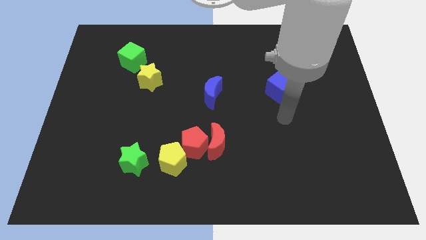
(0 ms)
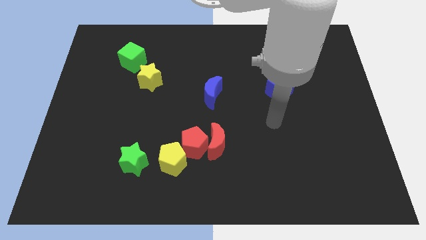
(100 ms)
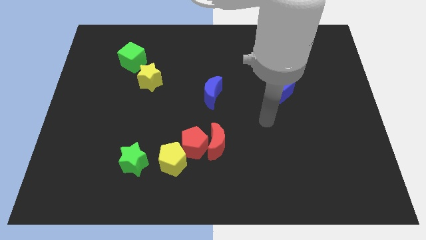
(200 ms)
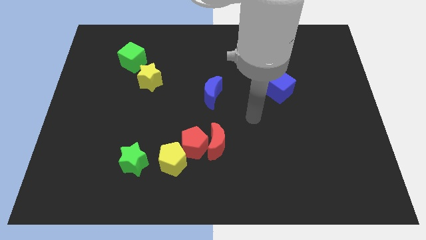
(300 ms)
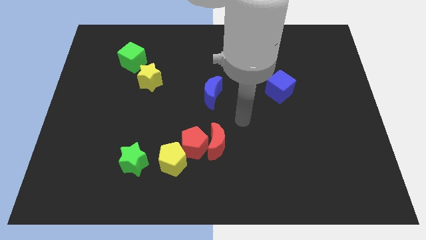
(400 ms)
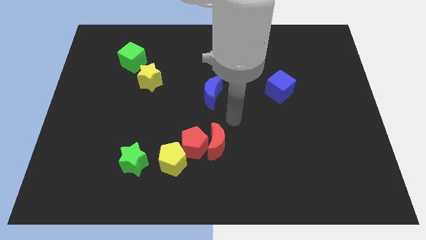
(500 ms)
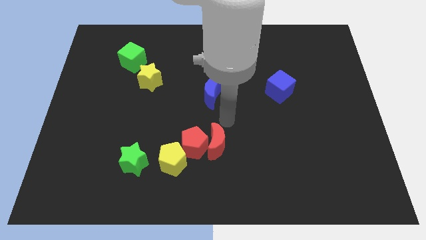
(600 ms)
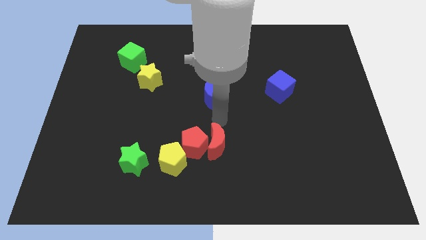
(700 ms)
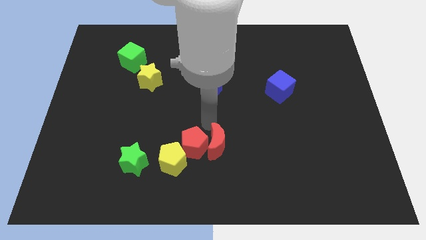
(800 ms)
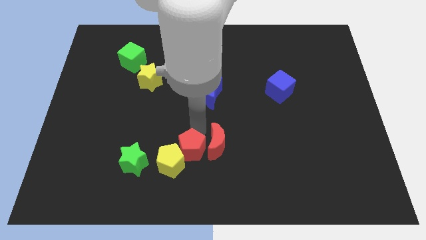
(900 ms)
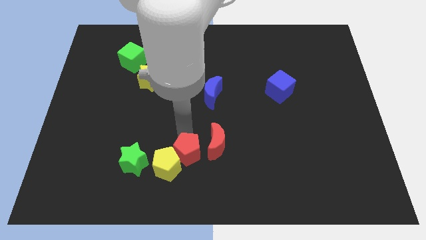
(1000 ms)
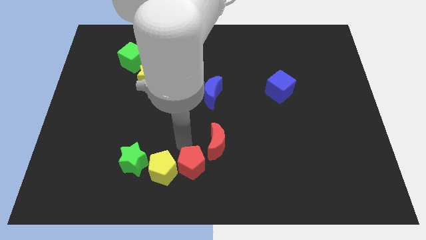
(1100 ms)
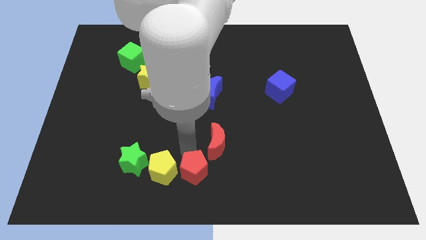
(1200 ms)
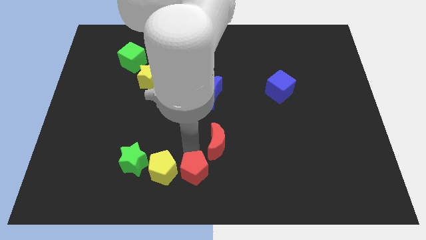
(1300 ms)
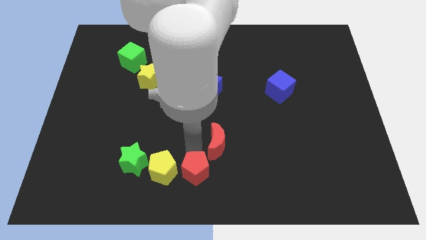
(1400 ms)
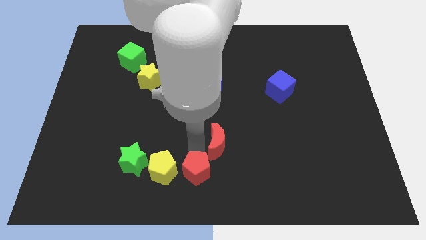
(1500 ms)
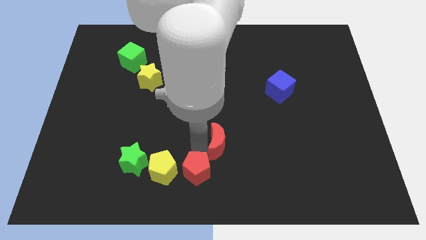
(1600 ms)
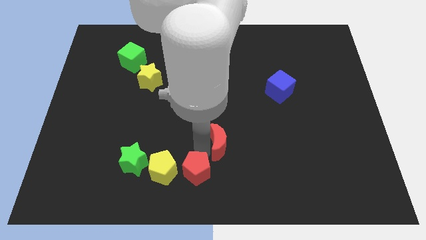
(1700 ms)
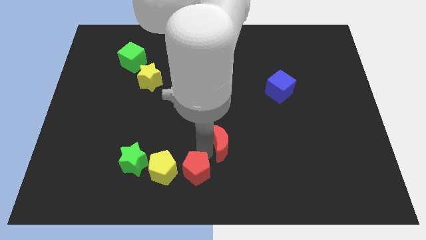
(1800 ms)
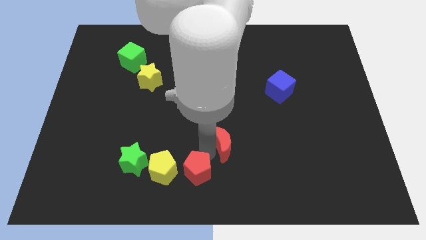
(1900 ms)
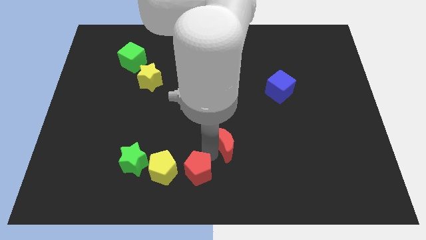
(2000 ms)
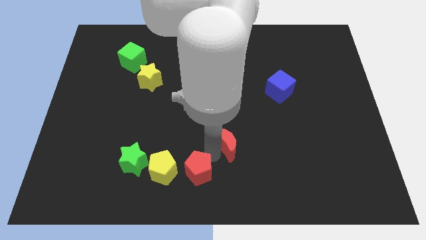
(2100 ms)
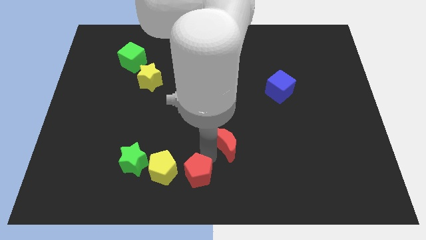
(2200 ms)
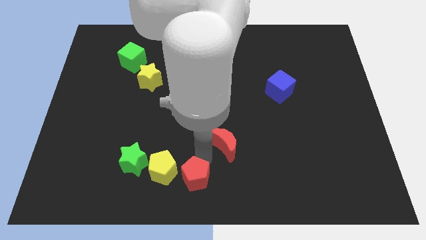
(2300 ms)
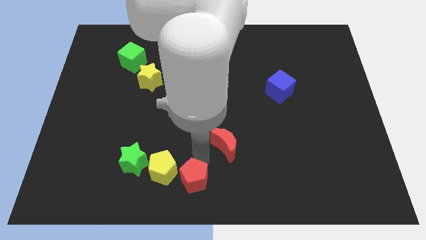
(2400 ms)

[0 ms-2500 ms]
pull the red moon apart from the red pentagon

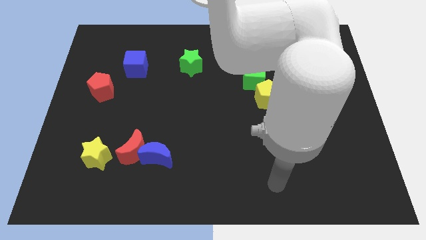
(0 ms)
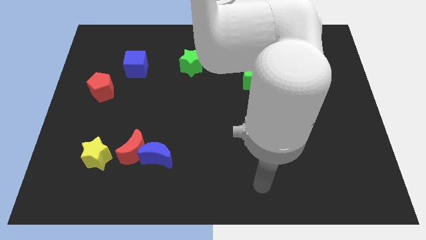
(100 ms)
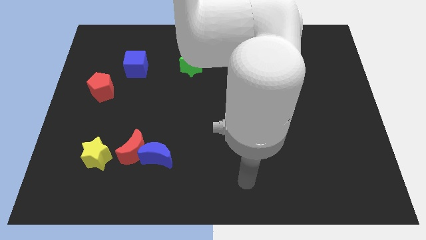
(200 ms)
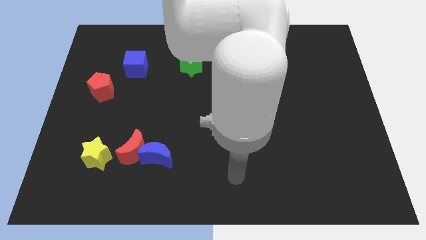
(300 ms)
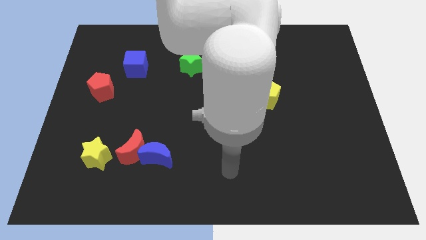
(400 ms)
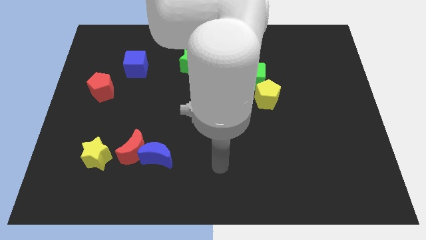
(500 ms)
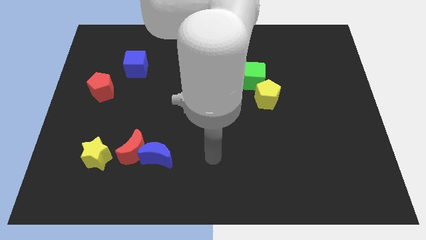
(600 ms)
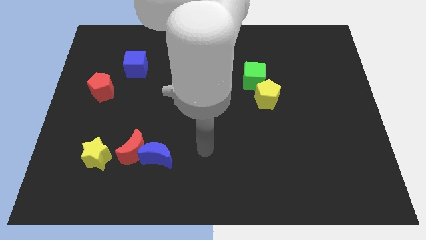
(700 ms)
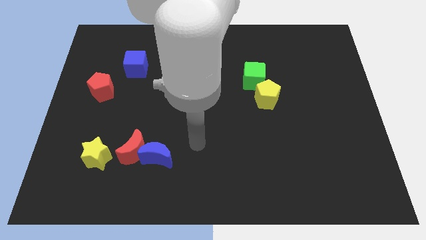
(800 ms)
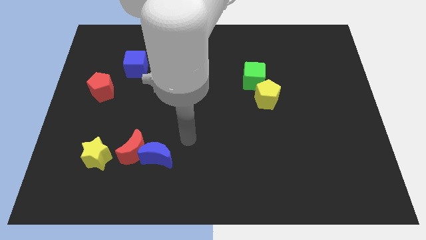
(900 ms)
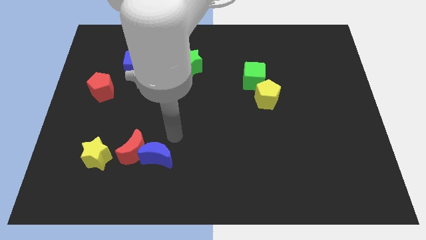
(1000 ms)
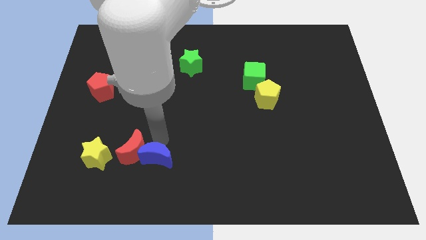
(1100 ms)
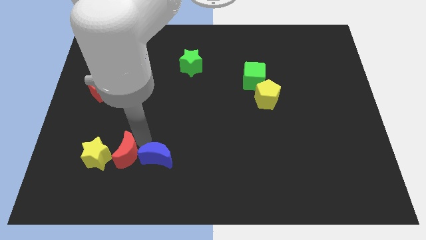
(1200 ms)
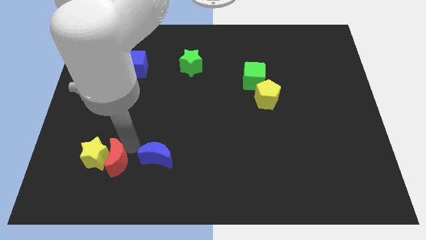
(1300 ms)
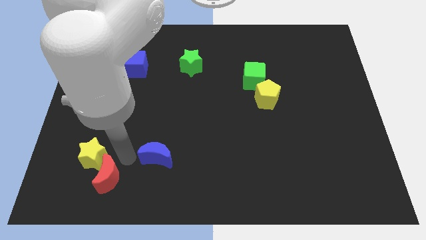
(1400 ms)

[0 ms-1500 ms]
move the blue moon away from the red moon

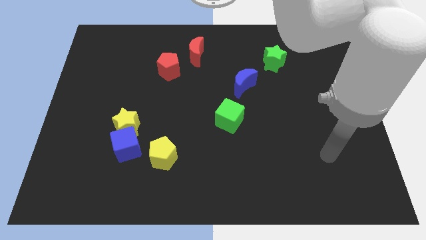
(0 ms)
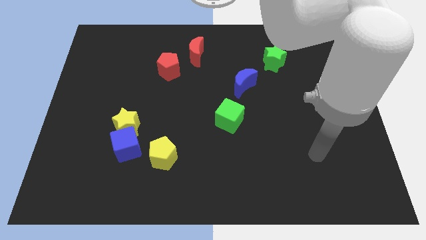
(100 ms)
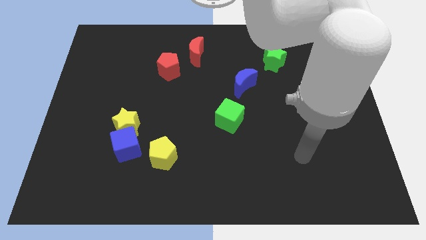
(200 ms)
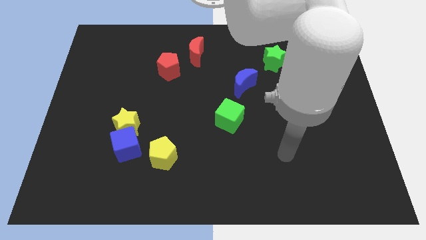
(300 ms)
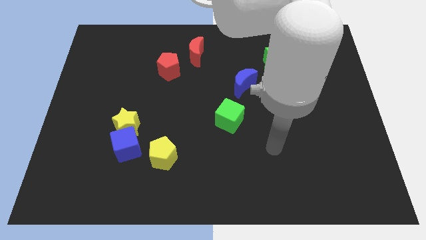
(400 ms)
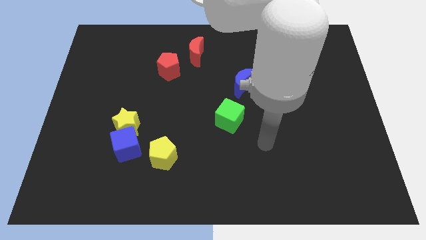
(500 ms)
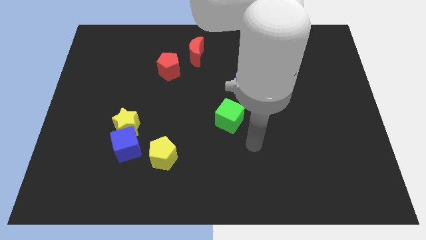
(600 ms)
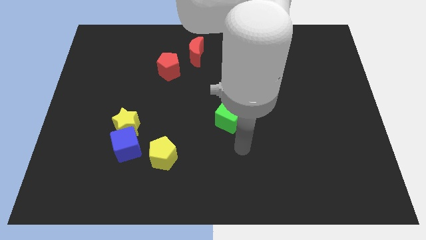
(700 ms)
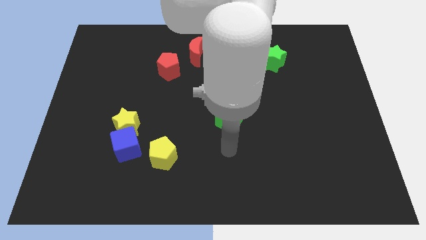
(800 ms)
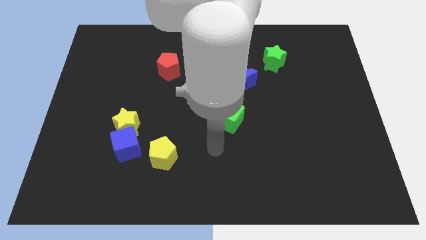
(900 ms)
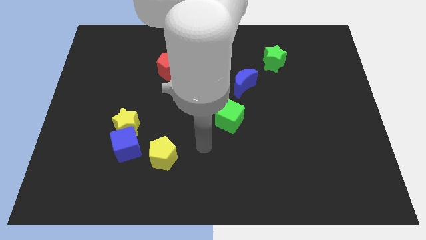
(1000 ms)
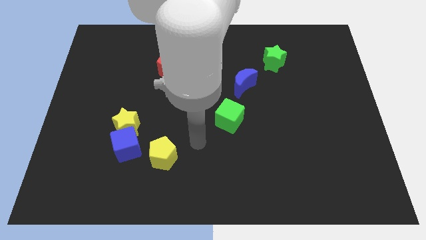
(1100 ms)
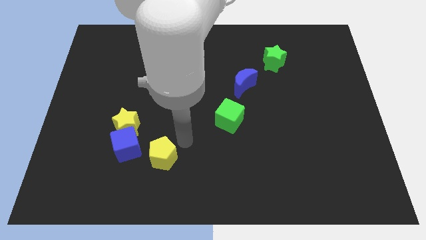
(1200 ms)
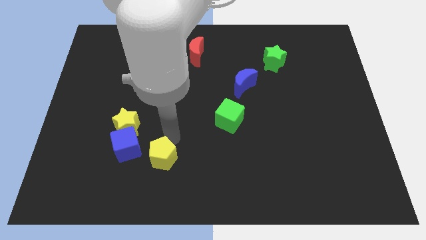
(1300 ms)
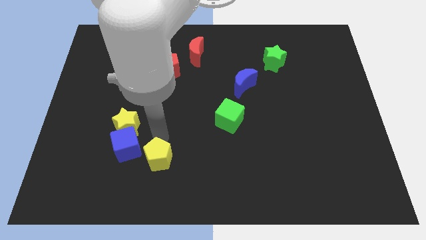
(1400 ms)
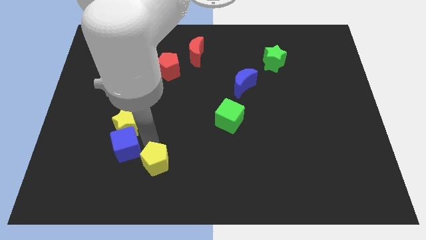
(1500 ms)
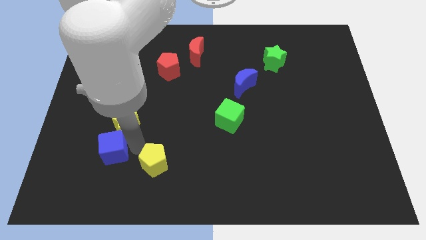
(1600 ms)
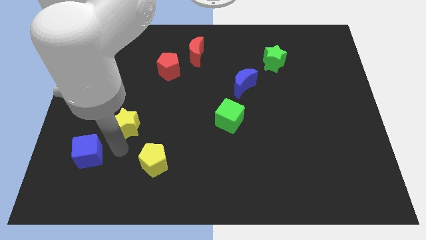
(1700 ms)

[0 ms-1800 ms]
pull the yellow star apart from the blue cube

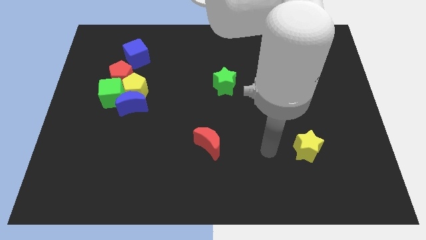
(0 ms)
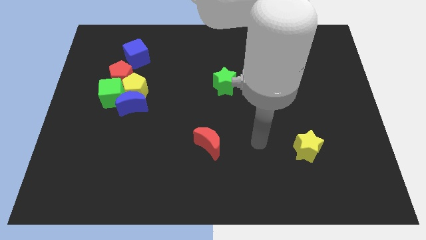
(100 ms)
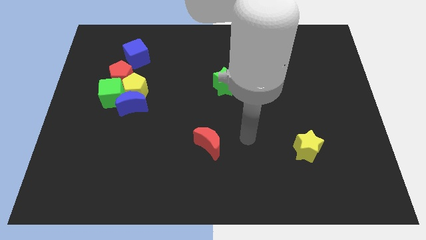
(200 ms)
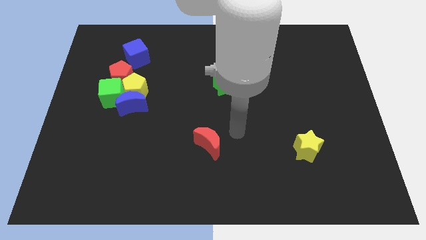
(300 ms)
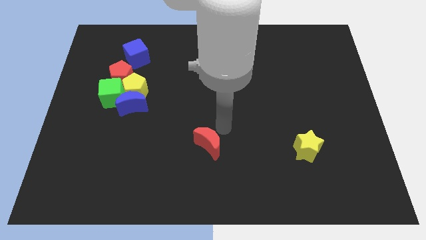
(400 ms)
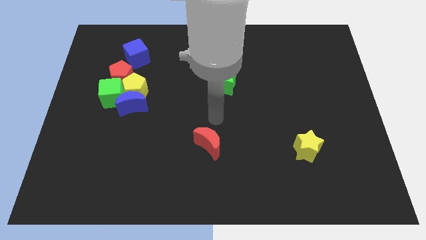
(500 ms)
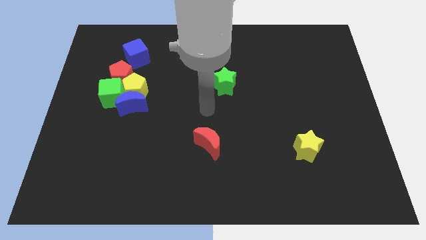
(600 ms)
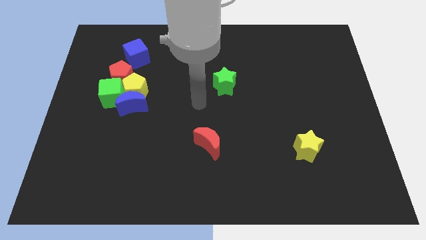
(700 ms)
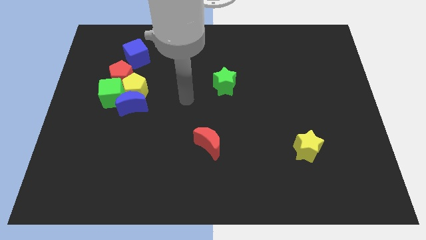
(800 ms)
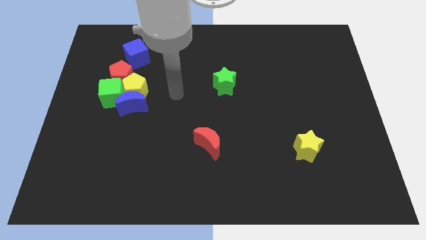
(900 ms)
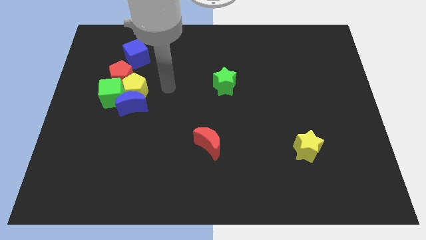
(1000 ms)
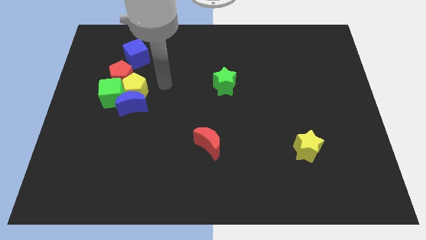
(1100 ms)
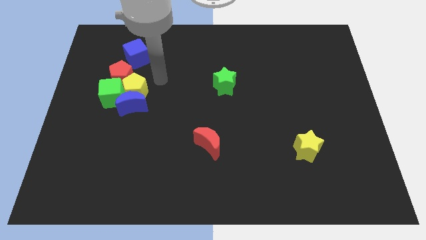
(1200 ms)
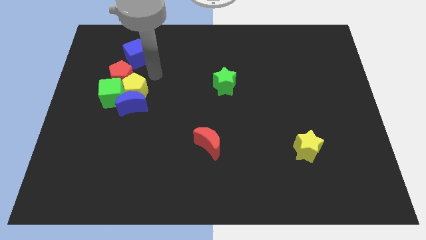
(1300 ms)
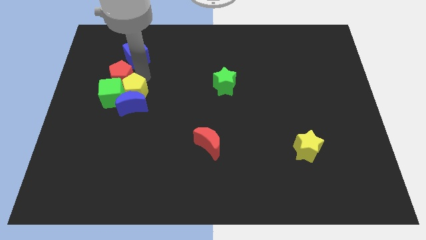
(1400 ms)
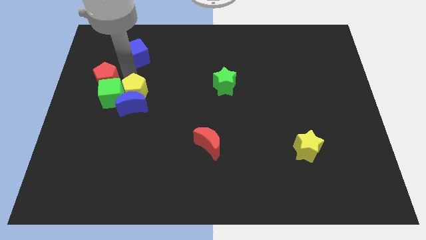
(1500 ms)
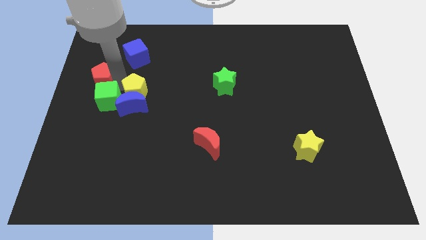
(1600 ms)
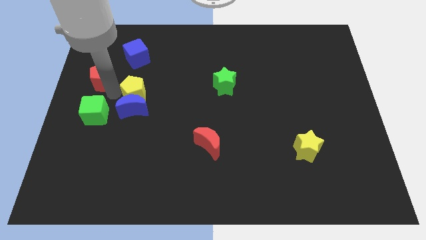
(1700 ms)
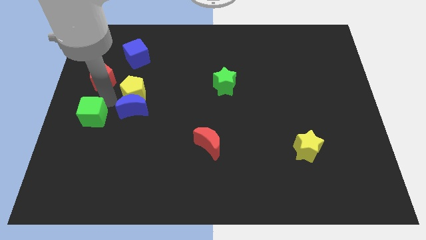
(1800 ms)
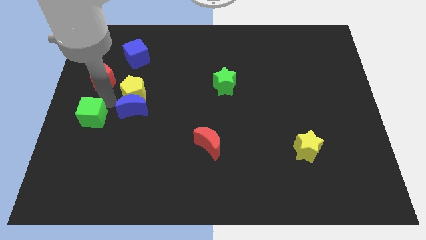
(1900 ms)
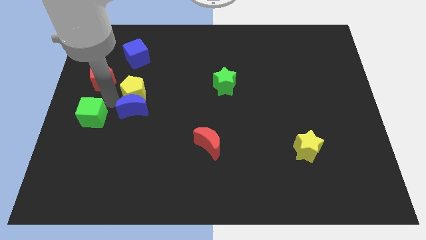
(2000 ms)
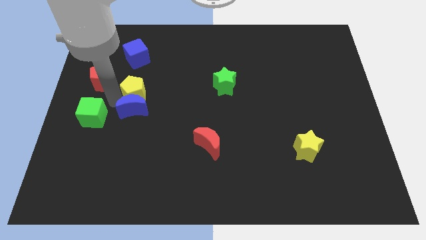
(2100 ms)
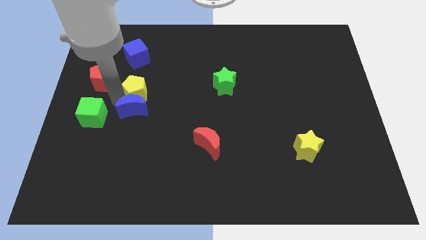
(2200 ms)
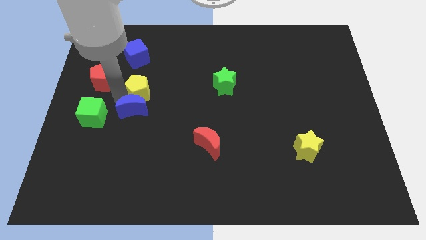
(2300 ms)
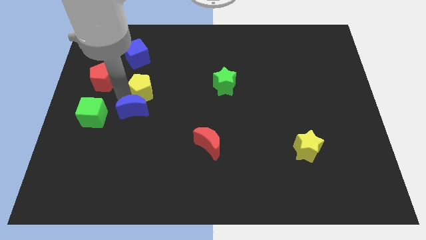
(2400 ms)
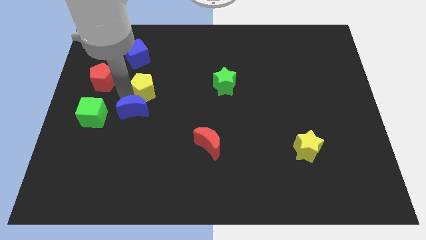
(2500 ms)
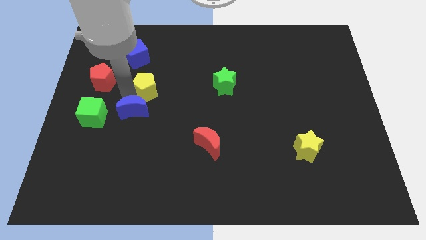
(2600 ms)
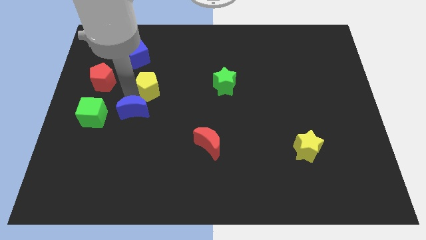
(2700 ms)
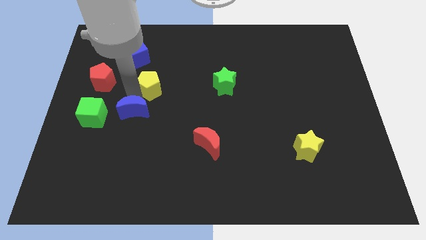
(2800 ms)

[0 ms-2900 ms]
move the yellow pentagon away from the group

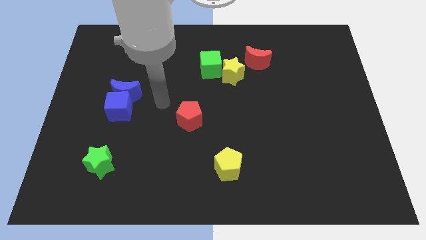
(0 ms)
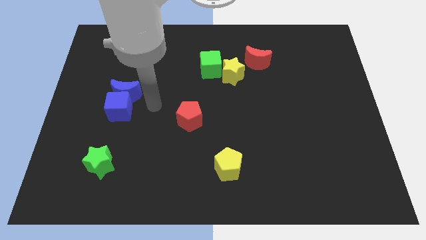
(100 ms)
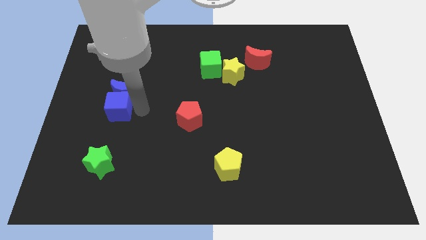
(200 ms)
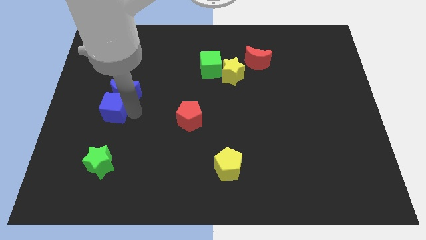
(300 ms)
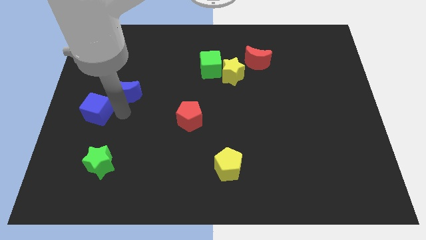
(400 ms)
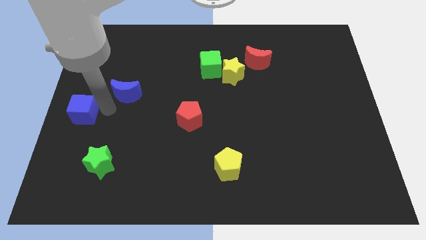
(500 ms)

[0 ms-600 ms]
separate the blue moon from the blue cube

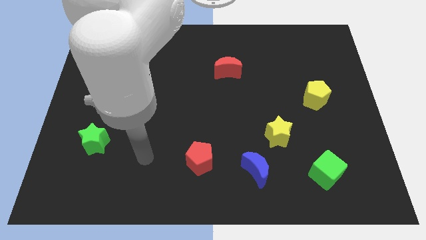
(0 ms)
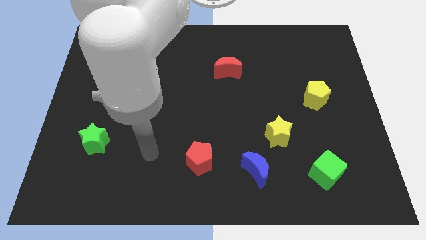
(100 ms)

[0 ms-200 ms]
move the blue moon away from the yellow star
